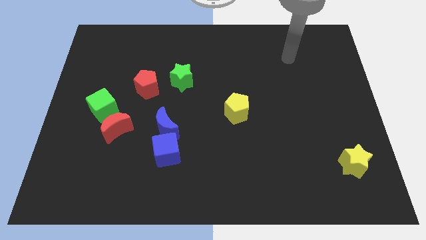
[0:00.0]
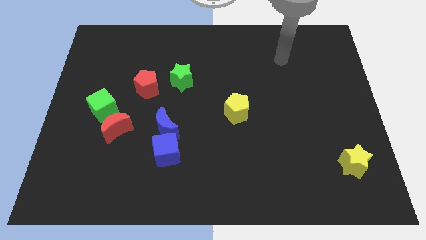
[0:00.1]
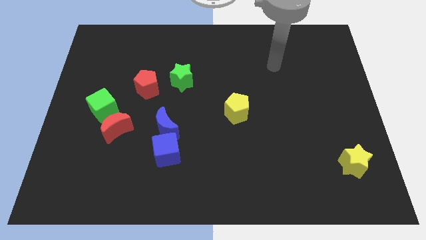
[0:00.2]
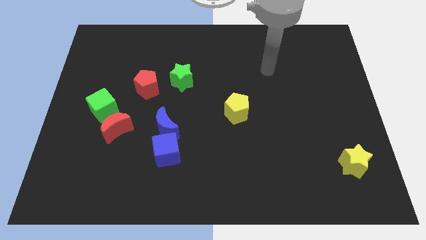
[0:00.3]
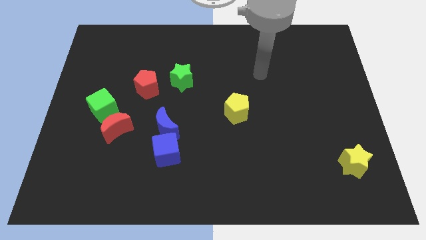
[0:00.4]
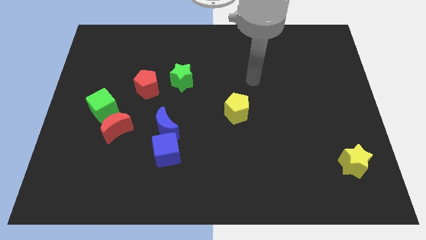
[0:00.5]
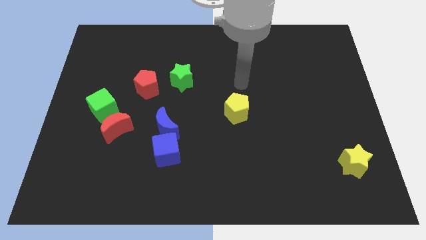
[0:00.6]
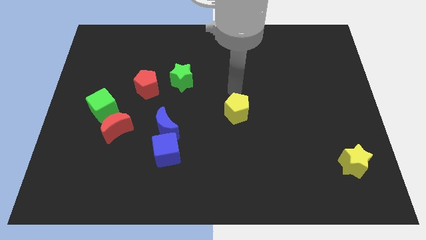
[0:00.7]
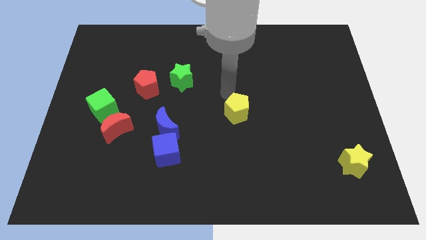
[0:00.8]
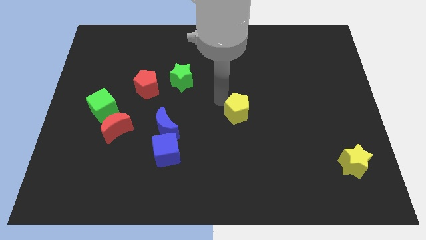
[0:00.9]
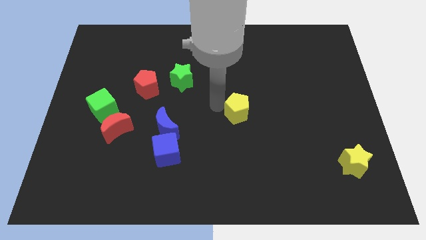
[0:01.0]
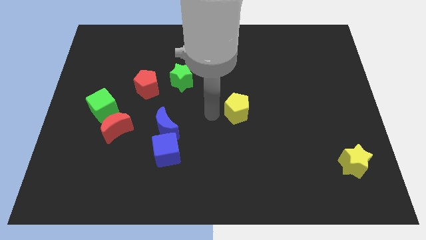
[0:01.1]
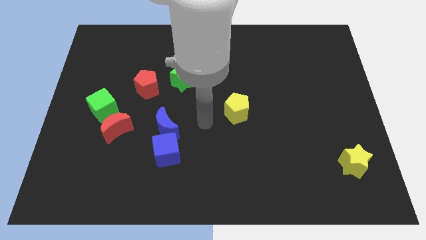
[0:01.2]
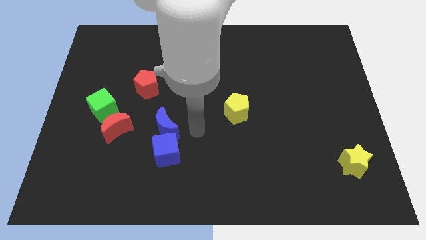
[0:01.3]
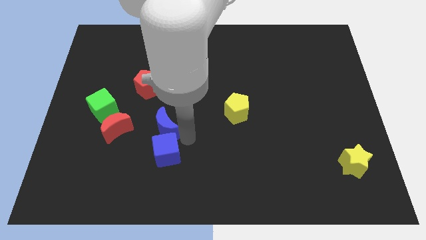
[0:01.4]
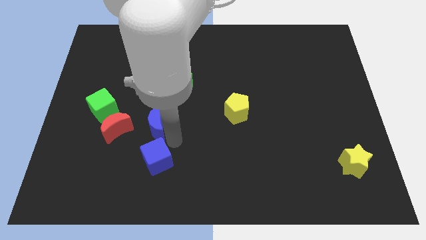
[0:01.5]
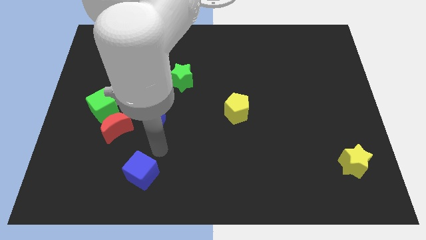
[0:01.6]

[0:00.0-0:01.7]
separate the blue moon from the blue cube

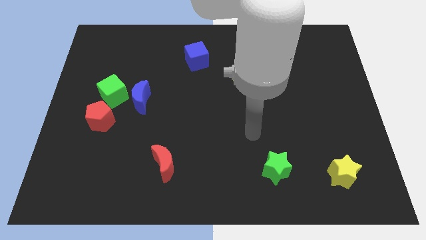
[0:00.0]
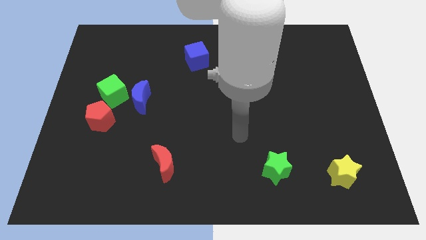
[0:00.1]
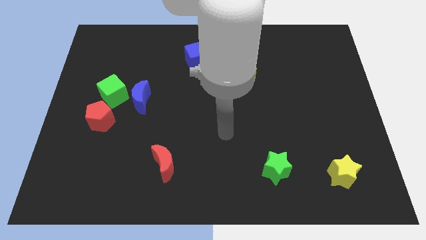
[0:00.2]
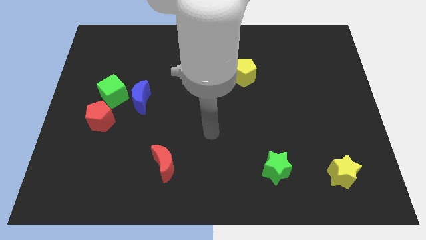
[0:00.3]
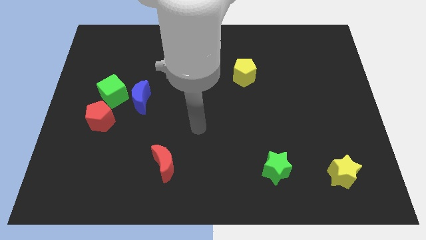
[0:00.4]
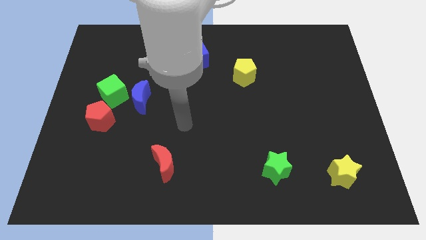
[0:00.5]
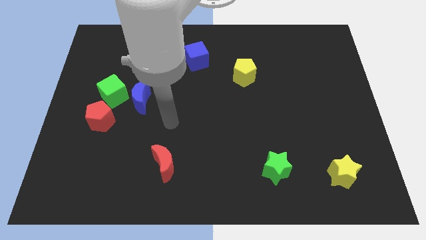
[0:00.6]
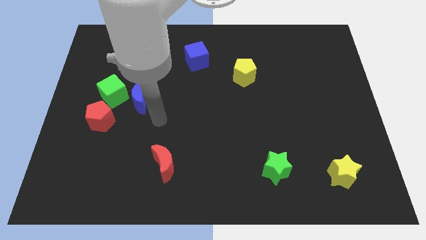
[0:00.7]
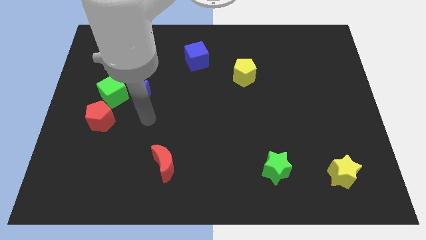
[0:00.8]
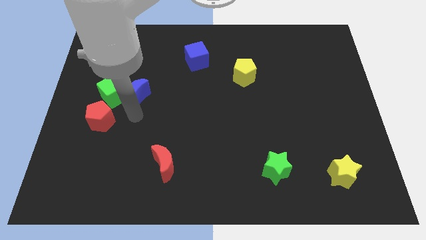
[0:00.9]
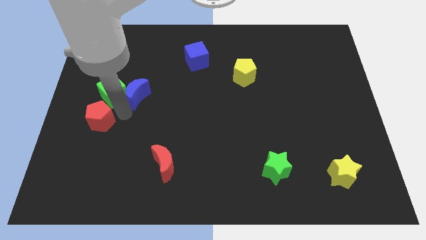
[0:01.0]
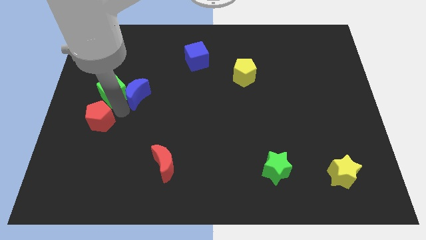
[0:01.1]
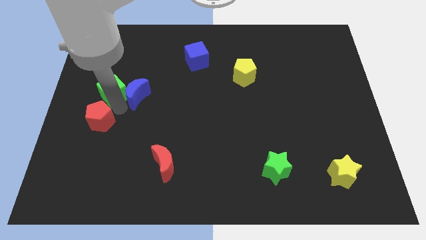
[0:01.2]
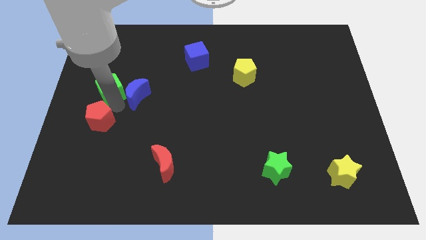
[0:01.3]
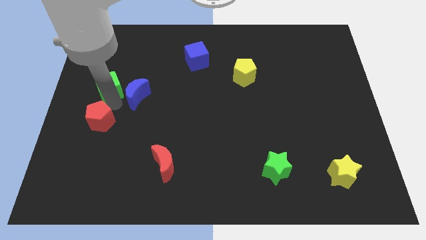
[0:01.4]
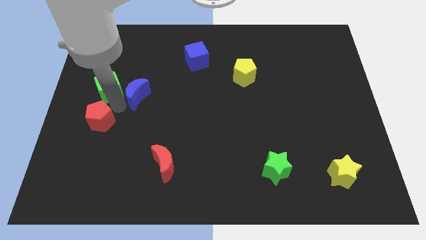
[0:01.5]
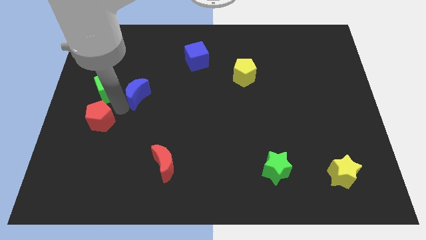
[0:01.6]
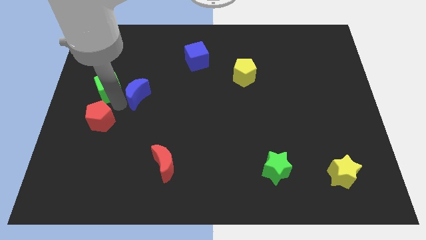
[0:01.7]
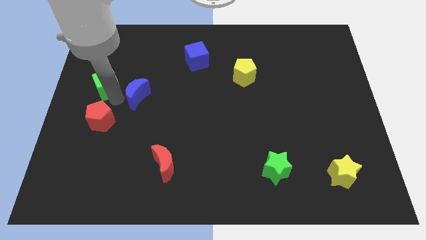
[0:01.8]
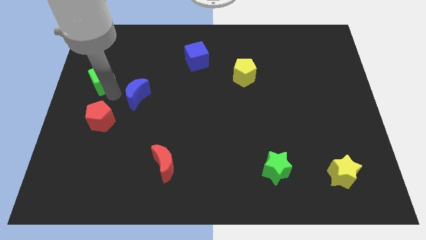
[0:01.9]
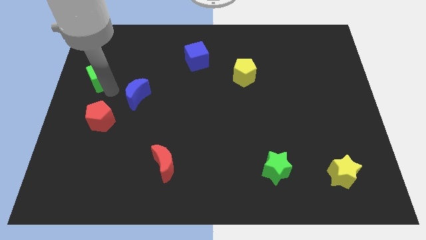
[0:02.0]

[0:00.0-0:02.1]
move the green cube away from the blue moon and red pentagon

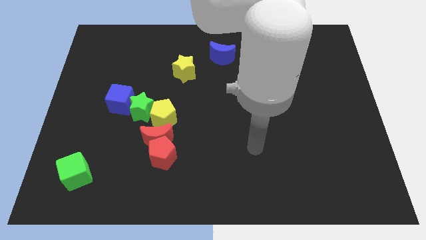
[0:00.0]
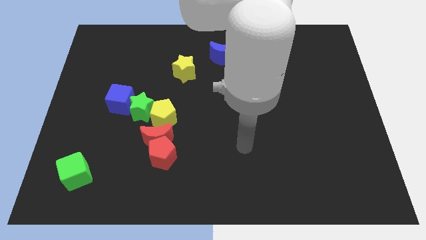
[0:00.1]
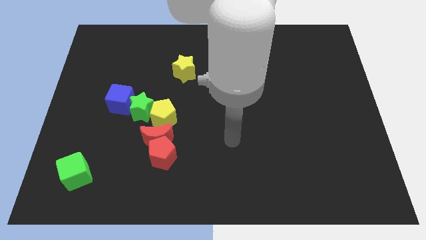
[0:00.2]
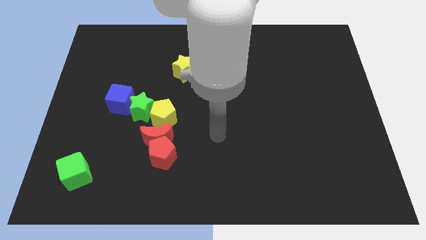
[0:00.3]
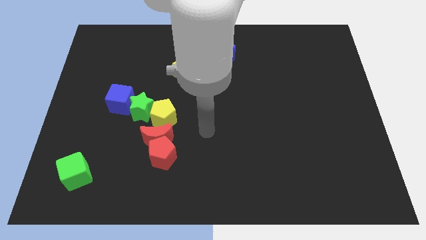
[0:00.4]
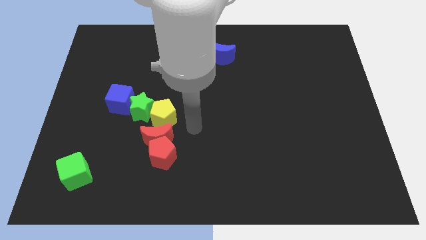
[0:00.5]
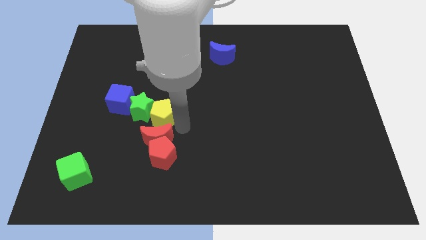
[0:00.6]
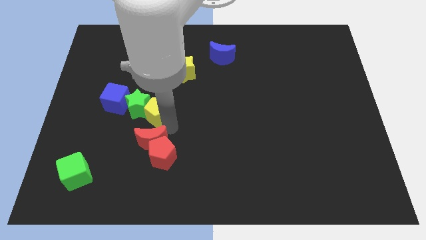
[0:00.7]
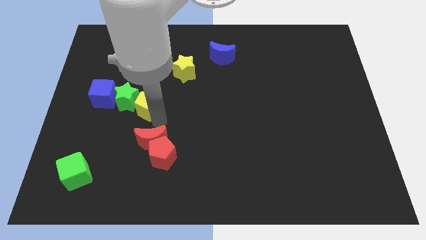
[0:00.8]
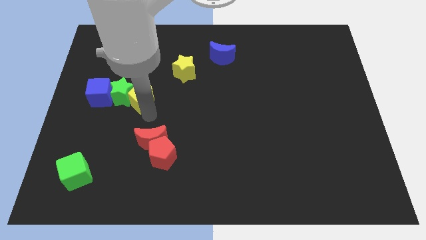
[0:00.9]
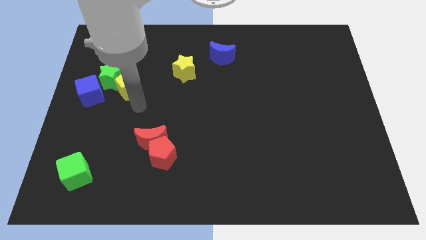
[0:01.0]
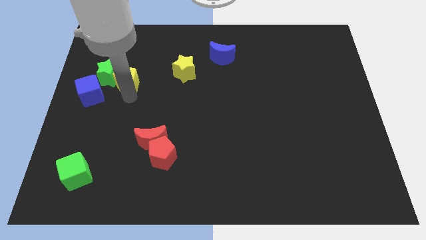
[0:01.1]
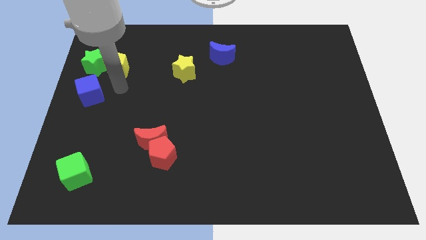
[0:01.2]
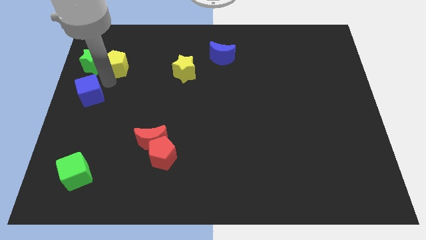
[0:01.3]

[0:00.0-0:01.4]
move the blue cube away from the green star

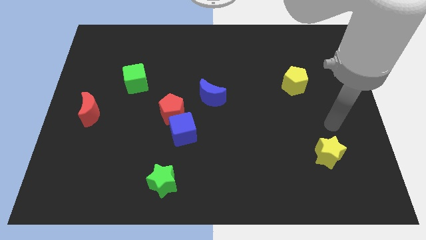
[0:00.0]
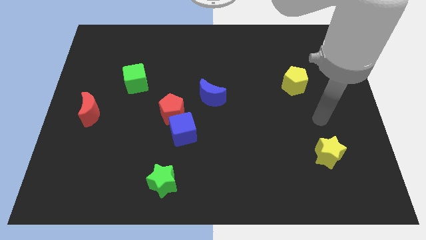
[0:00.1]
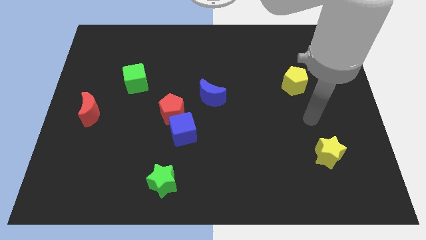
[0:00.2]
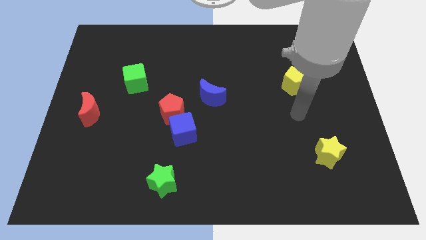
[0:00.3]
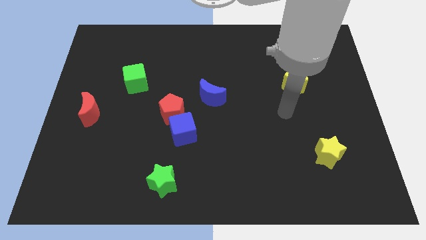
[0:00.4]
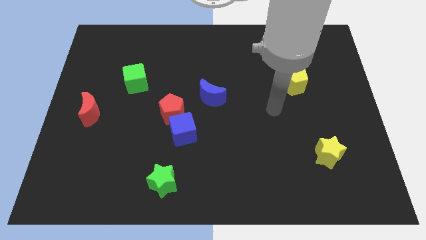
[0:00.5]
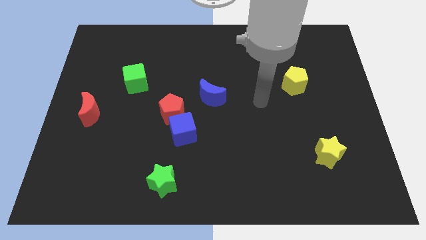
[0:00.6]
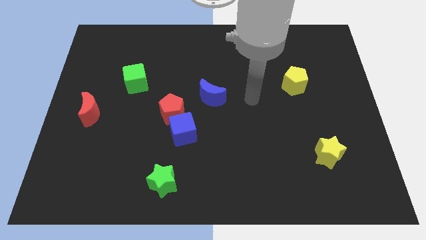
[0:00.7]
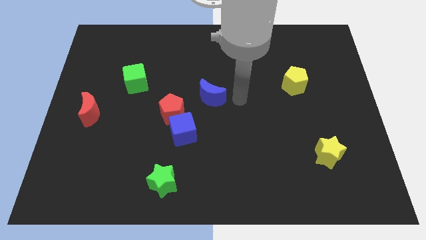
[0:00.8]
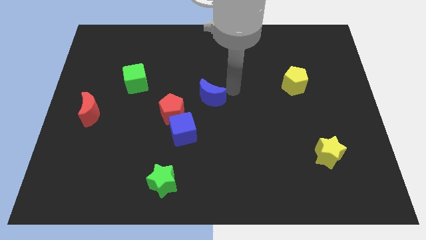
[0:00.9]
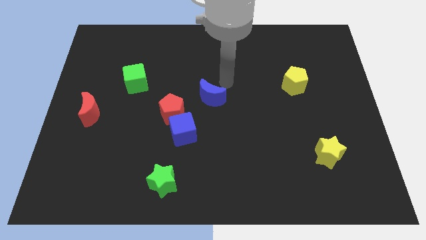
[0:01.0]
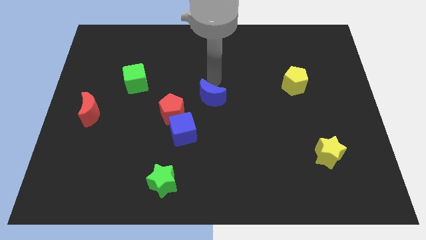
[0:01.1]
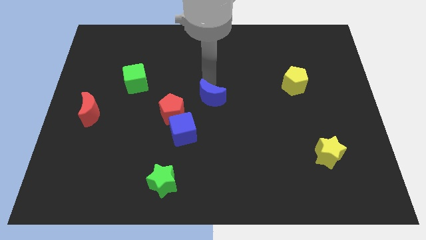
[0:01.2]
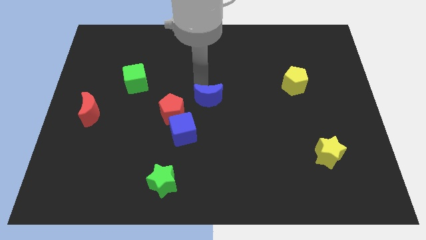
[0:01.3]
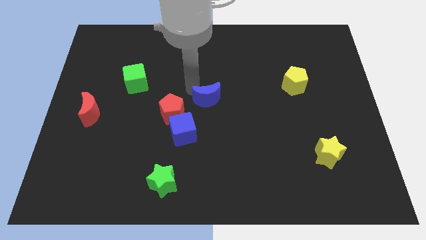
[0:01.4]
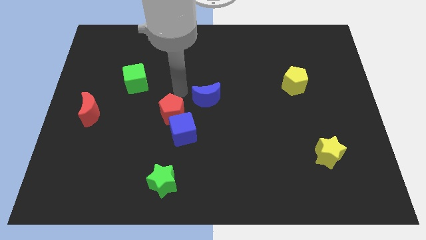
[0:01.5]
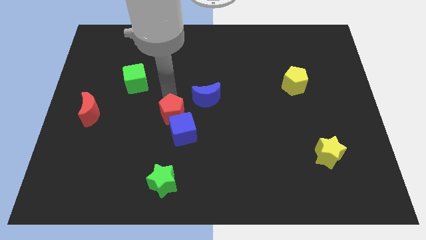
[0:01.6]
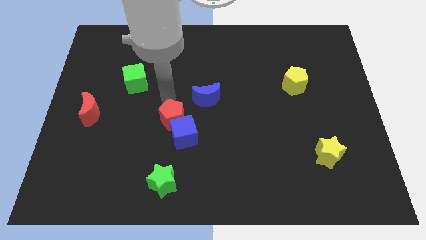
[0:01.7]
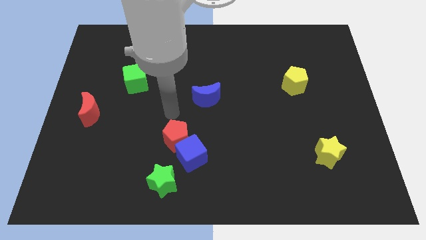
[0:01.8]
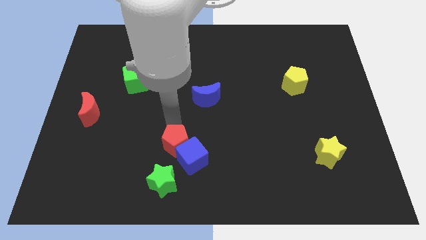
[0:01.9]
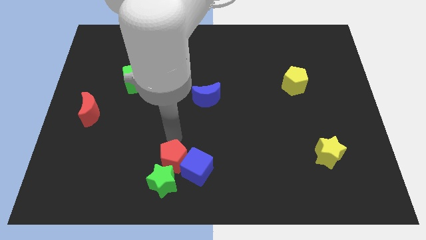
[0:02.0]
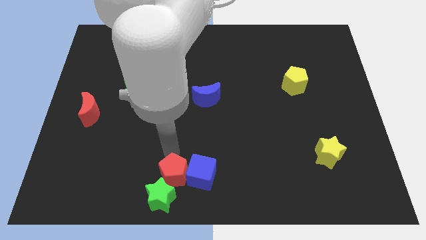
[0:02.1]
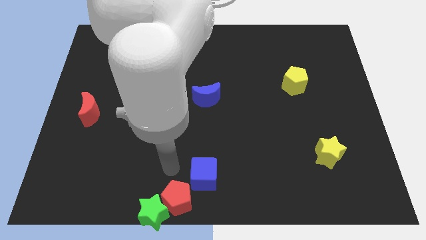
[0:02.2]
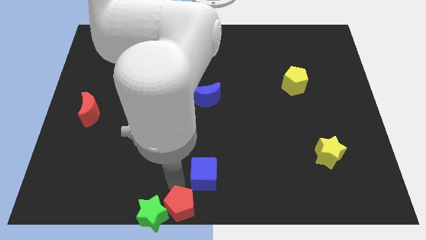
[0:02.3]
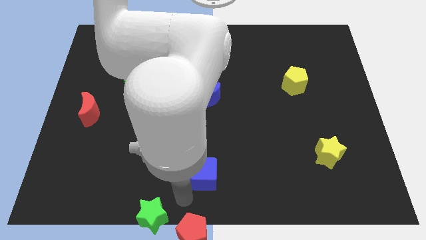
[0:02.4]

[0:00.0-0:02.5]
pull the blue cube apart from the red pentagon

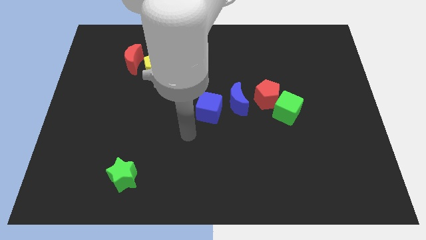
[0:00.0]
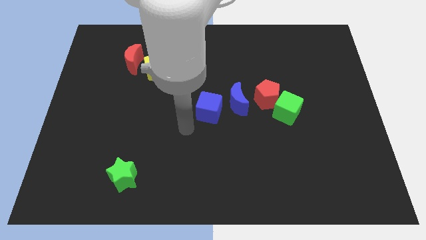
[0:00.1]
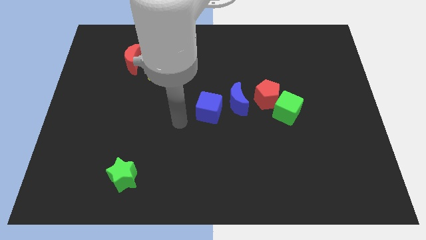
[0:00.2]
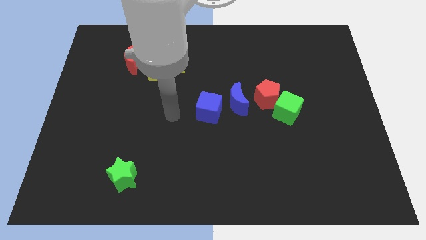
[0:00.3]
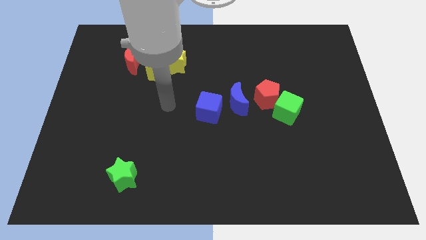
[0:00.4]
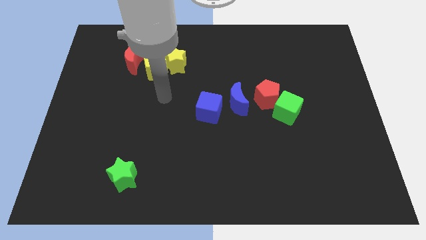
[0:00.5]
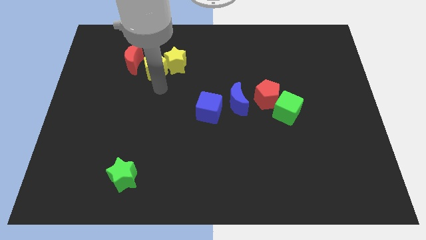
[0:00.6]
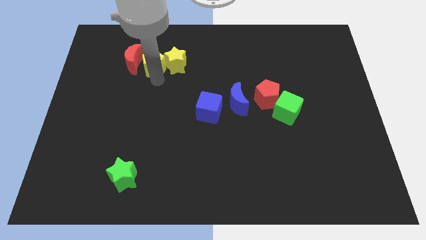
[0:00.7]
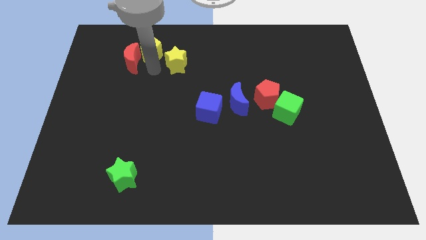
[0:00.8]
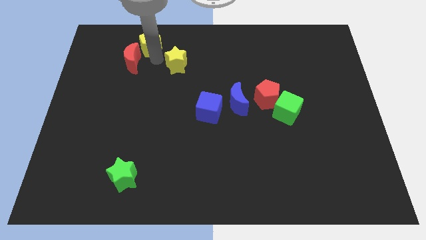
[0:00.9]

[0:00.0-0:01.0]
move the yellow star away from the yellow pentagon

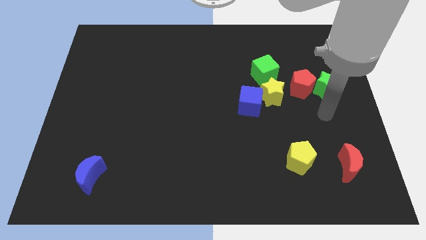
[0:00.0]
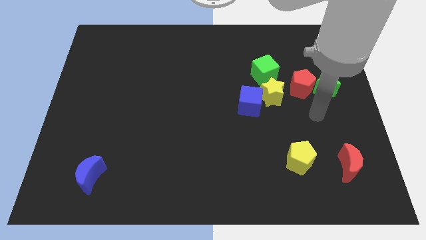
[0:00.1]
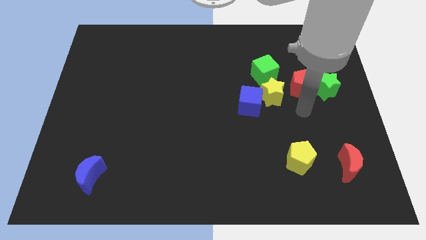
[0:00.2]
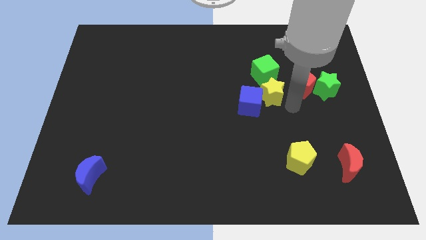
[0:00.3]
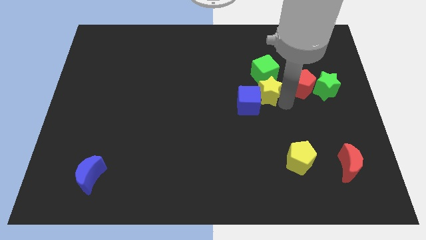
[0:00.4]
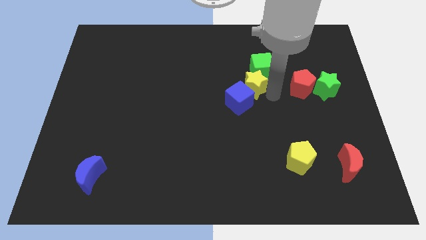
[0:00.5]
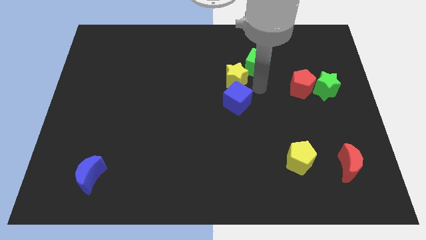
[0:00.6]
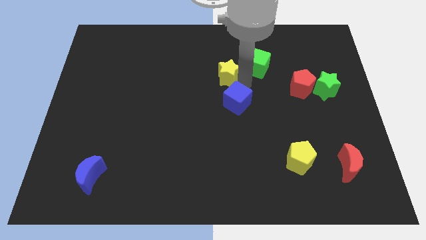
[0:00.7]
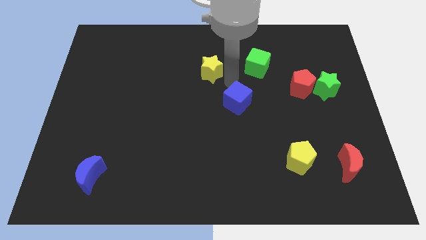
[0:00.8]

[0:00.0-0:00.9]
separate the blue cube from the yellow star
